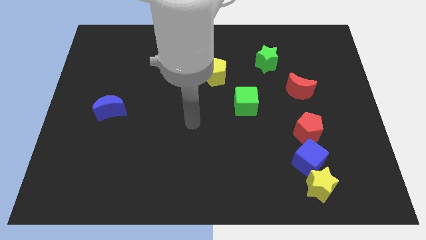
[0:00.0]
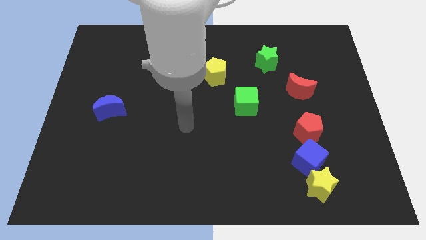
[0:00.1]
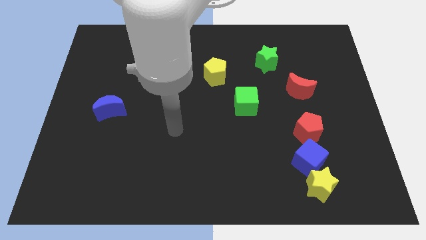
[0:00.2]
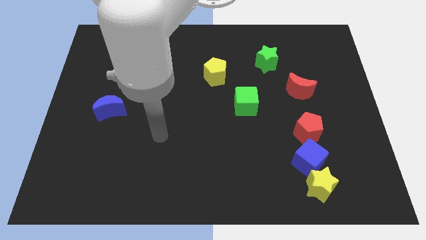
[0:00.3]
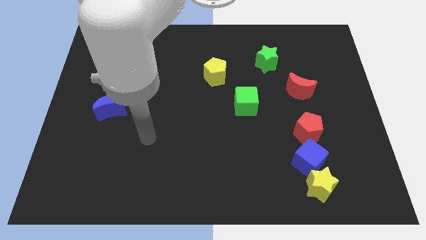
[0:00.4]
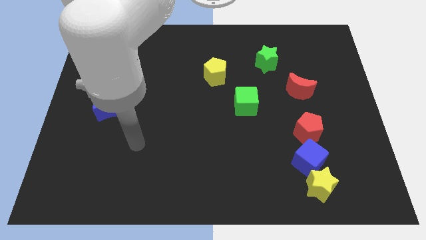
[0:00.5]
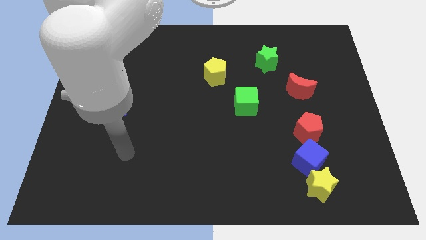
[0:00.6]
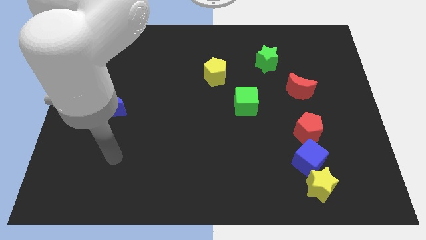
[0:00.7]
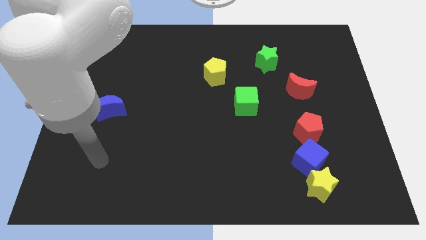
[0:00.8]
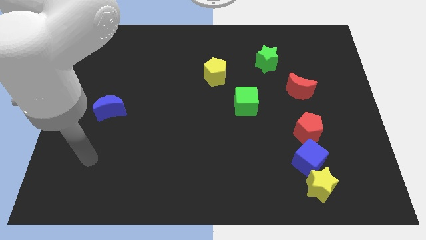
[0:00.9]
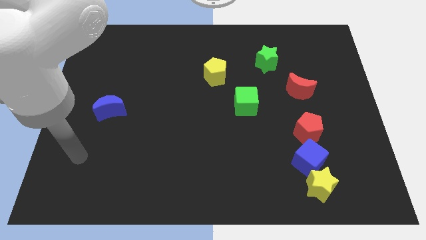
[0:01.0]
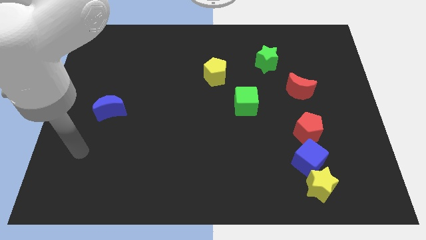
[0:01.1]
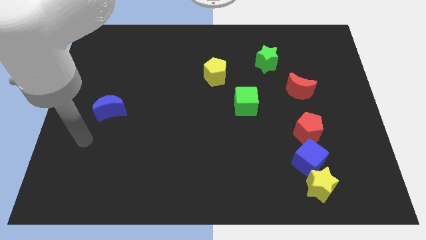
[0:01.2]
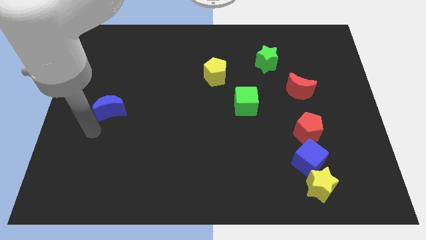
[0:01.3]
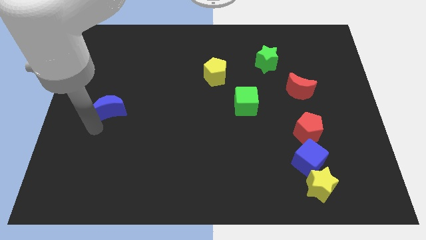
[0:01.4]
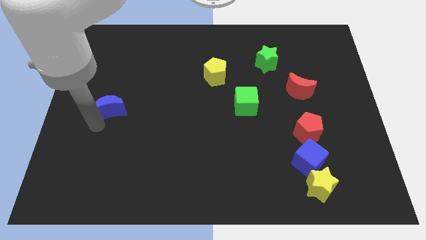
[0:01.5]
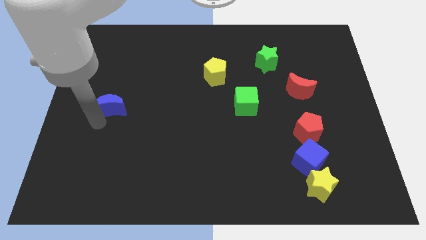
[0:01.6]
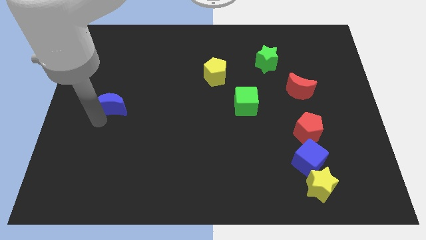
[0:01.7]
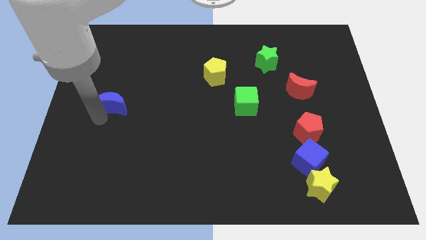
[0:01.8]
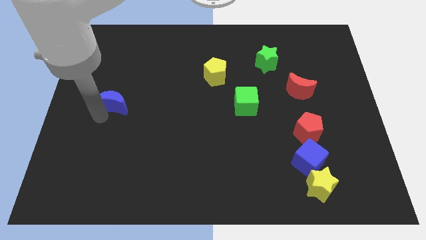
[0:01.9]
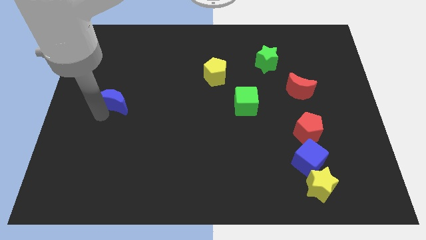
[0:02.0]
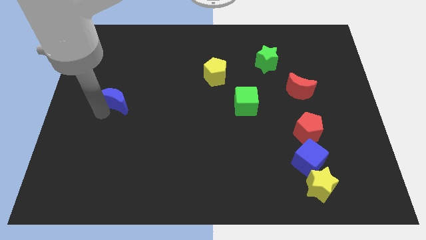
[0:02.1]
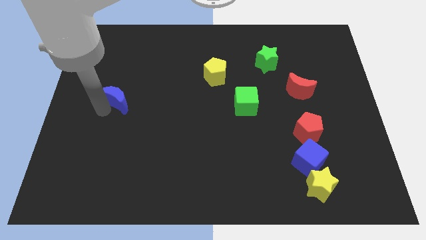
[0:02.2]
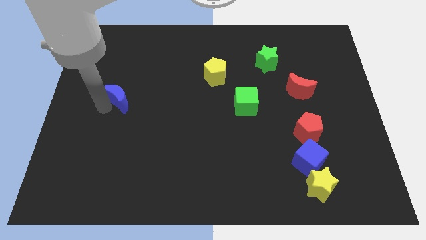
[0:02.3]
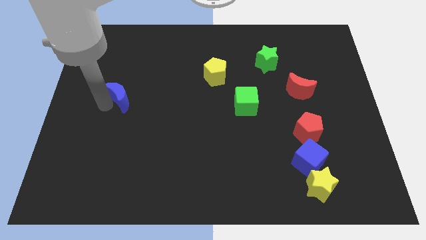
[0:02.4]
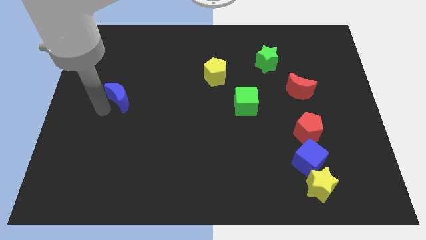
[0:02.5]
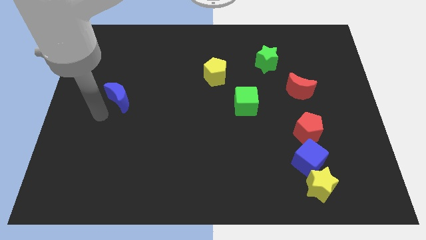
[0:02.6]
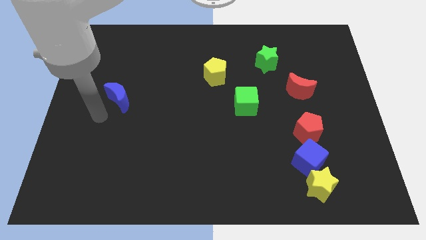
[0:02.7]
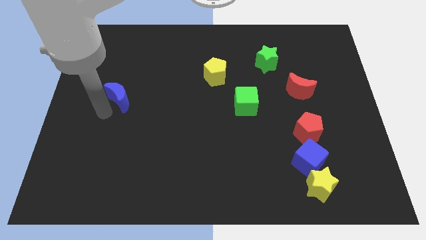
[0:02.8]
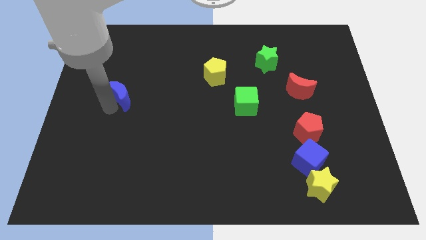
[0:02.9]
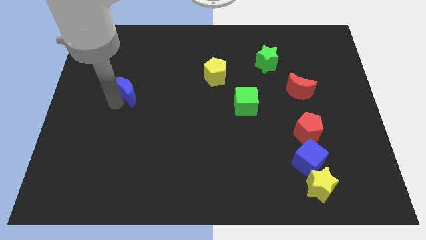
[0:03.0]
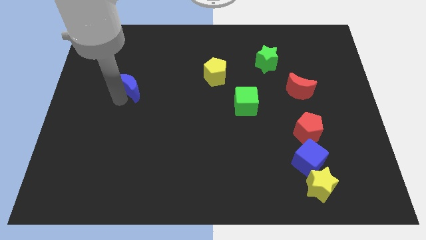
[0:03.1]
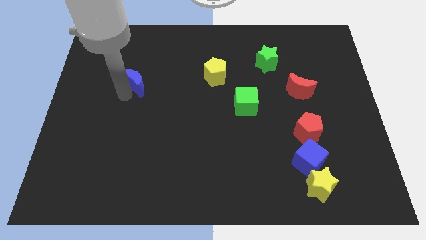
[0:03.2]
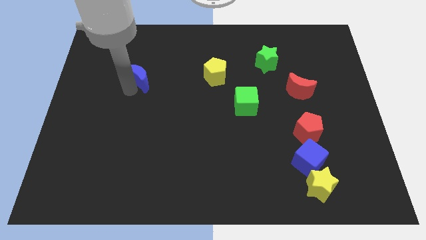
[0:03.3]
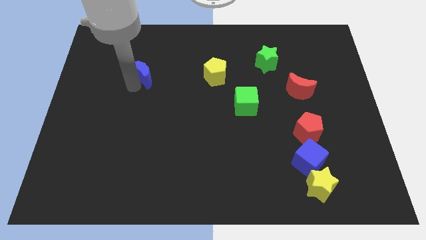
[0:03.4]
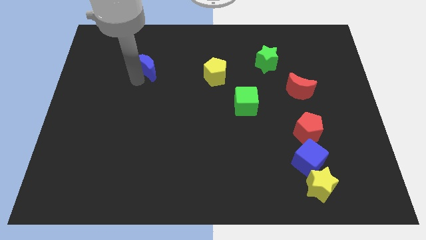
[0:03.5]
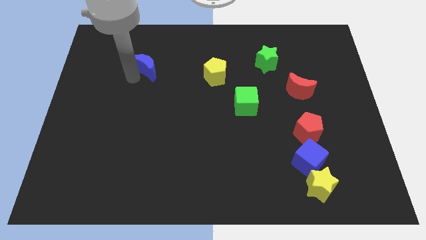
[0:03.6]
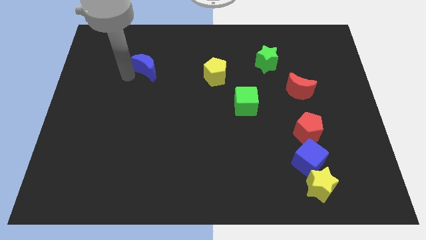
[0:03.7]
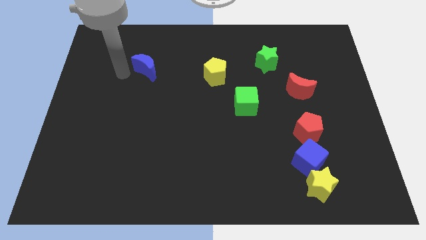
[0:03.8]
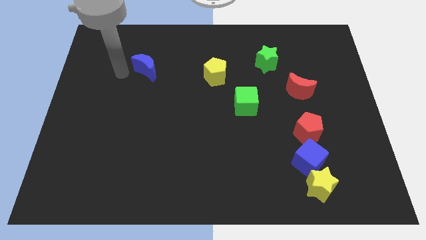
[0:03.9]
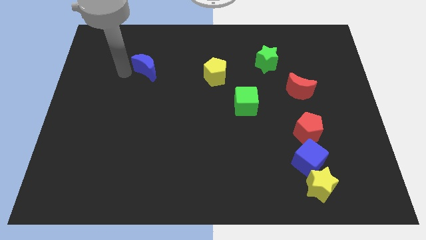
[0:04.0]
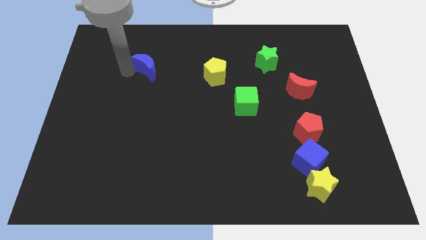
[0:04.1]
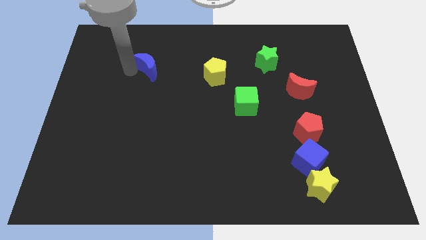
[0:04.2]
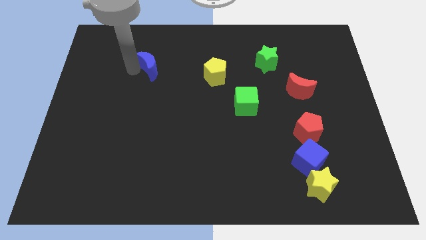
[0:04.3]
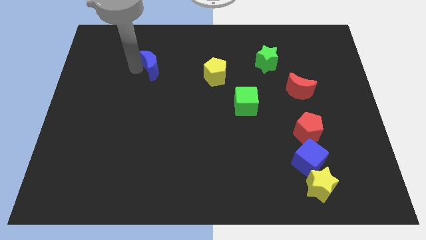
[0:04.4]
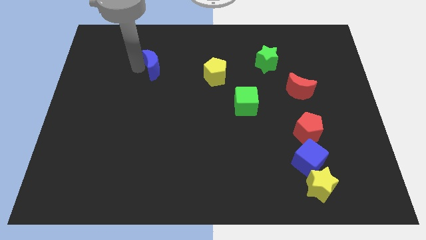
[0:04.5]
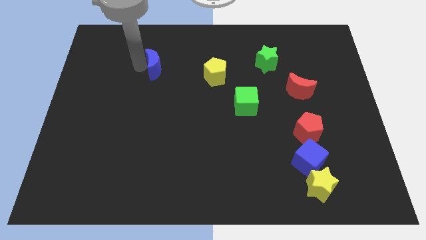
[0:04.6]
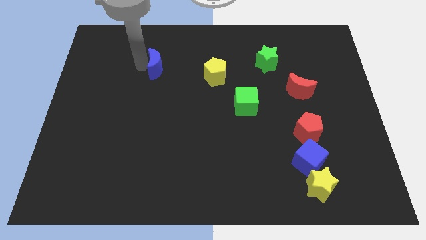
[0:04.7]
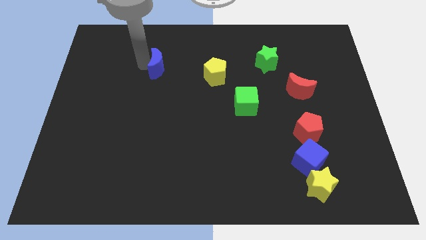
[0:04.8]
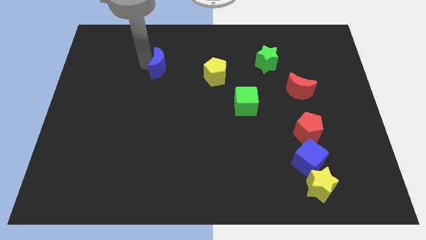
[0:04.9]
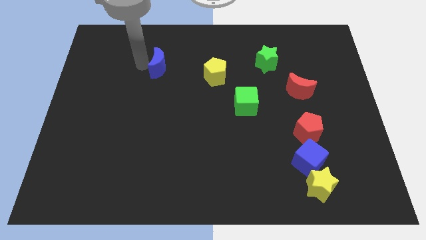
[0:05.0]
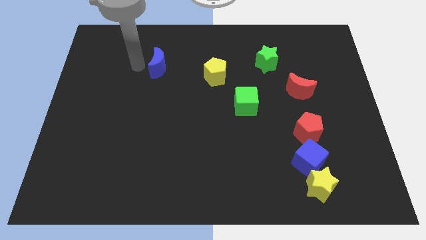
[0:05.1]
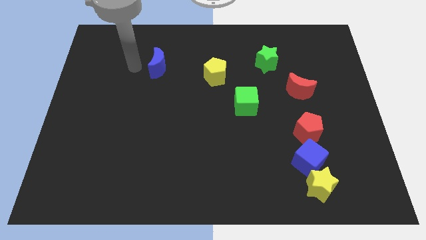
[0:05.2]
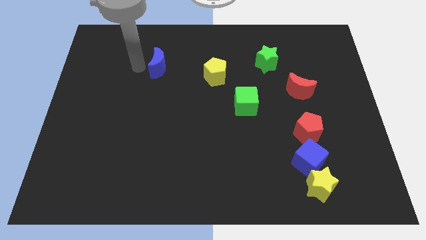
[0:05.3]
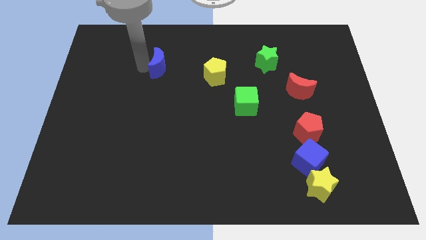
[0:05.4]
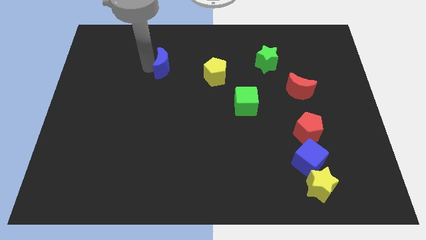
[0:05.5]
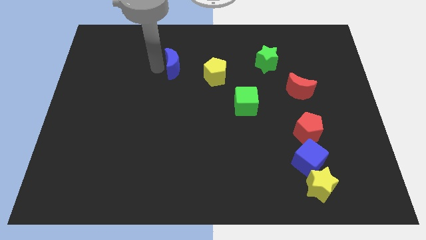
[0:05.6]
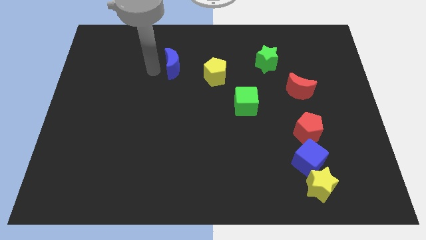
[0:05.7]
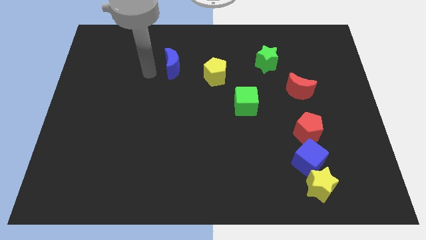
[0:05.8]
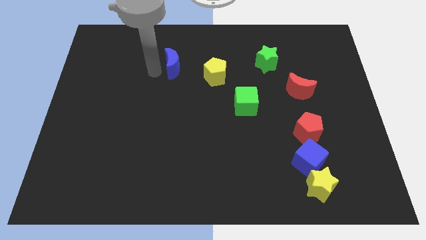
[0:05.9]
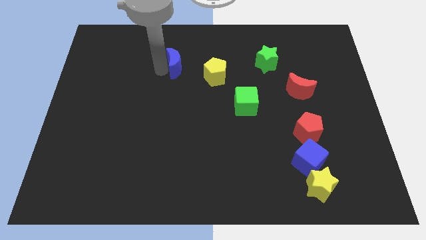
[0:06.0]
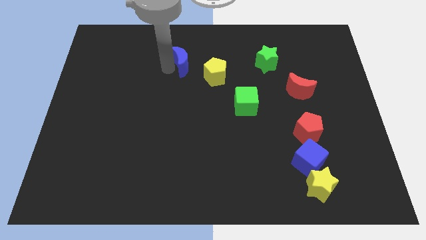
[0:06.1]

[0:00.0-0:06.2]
move the blue moon diagonally up and to the left of the yellow pentagon

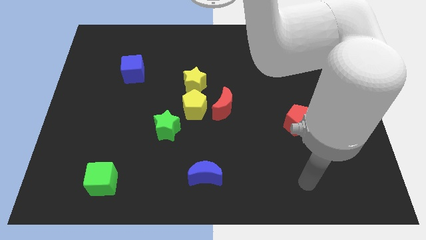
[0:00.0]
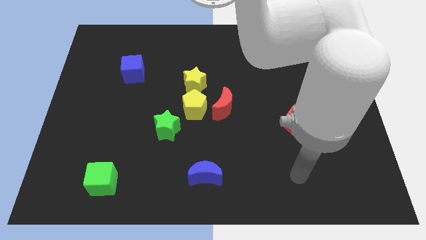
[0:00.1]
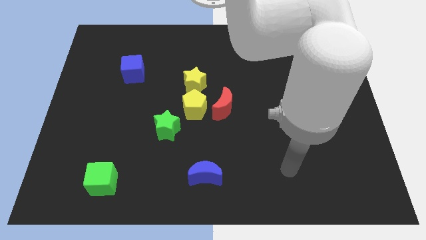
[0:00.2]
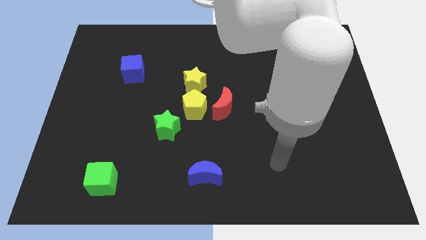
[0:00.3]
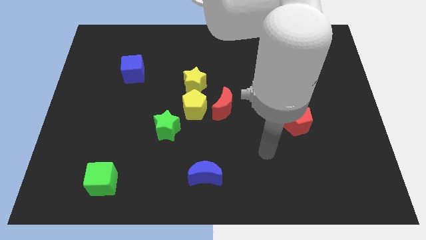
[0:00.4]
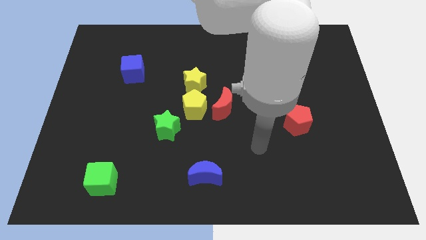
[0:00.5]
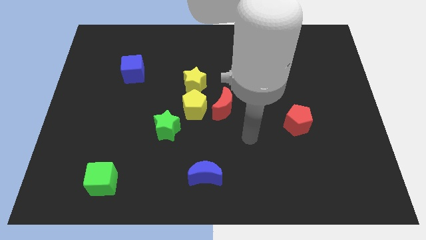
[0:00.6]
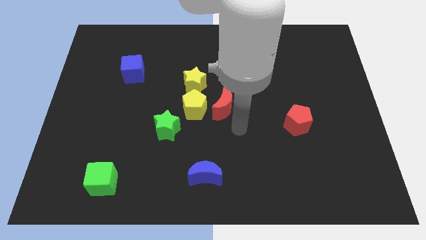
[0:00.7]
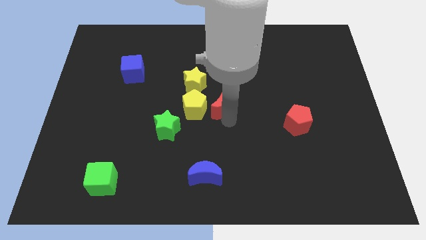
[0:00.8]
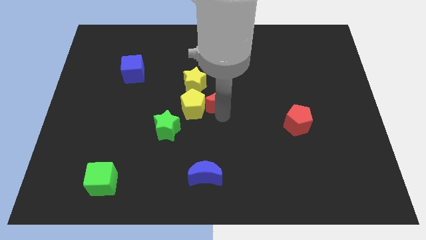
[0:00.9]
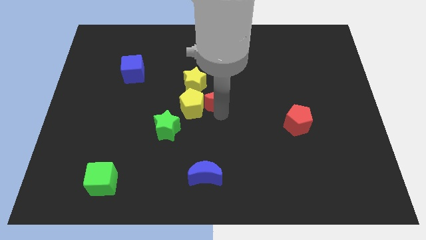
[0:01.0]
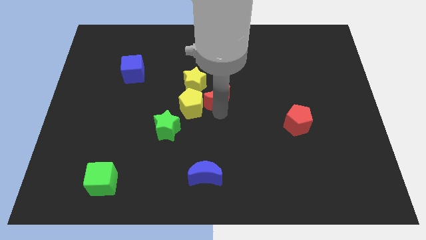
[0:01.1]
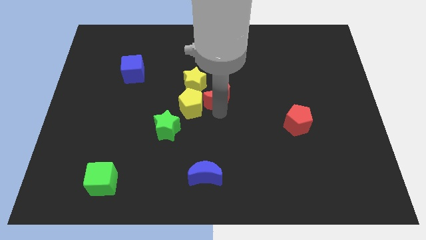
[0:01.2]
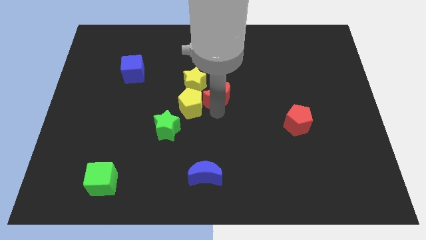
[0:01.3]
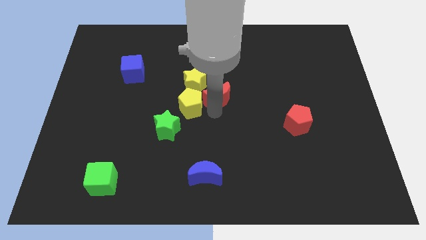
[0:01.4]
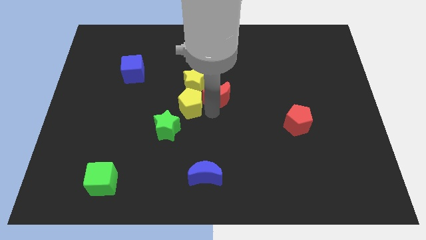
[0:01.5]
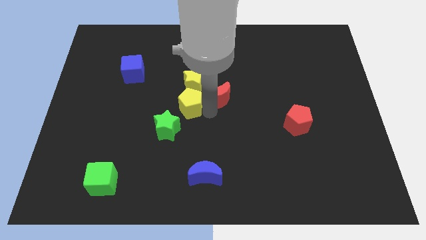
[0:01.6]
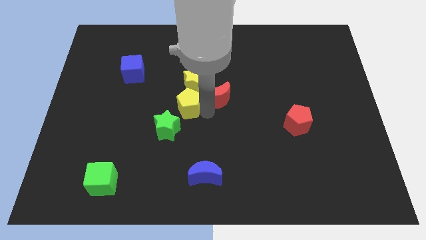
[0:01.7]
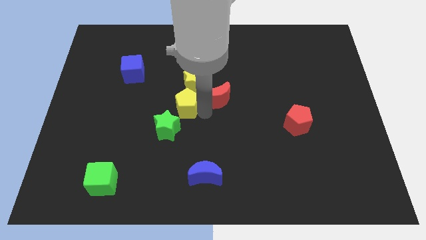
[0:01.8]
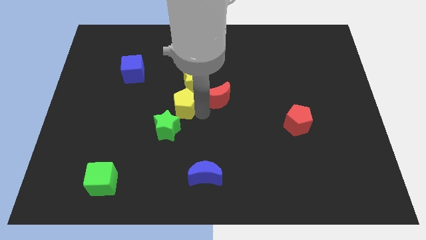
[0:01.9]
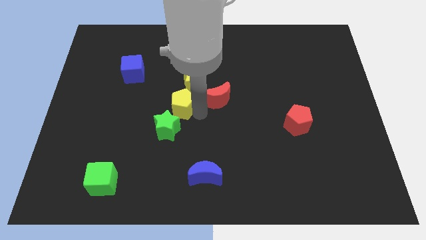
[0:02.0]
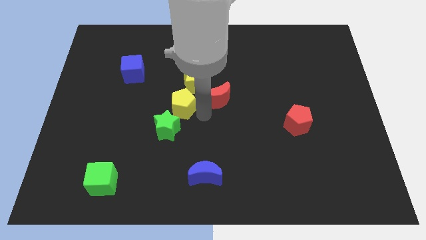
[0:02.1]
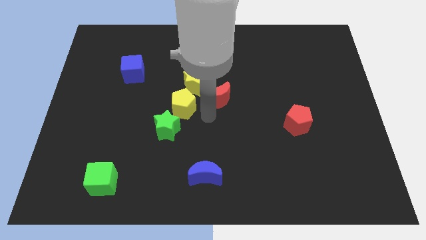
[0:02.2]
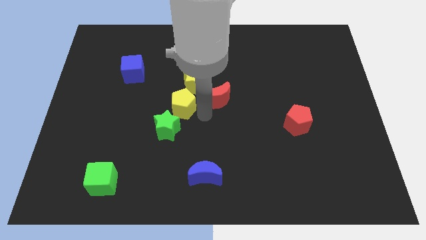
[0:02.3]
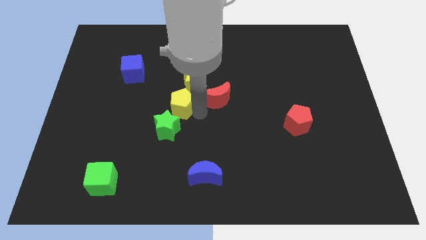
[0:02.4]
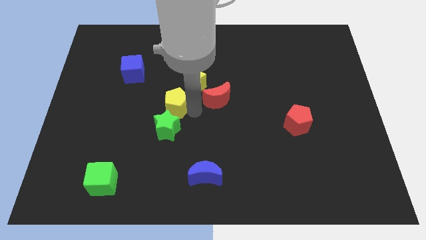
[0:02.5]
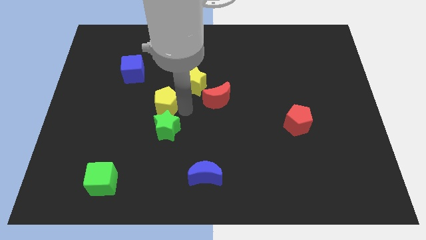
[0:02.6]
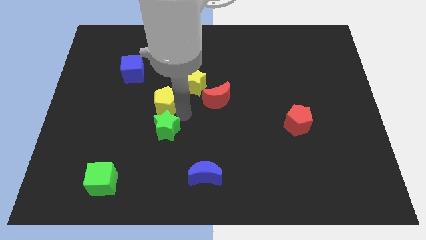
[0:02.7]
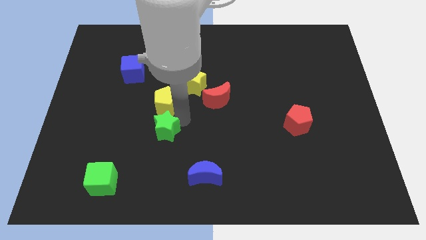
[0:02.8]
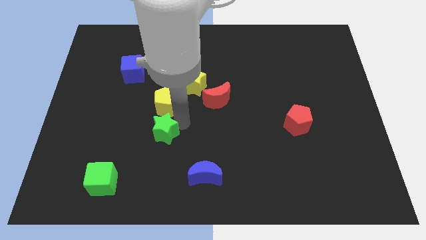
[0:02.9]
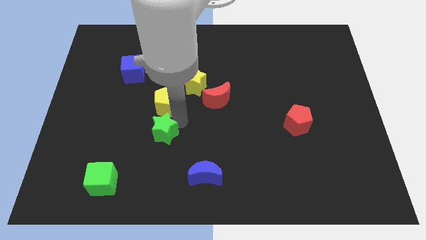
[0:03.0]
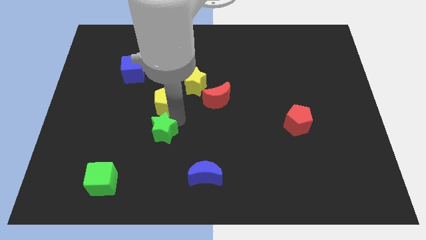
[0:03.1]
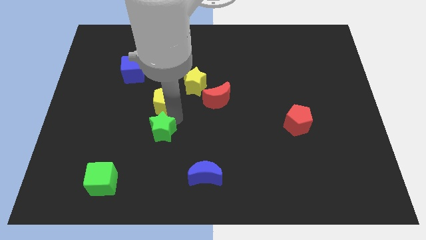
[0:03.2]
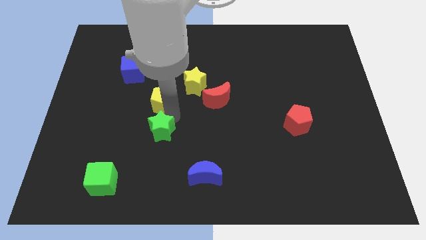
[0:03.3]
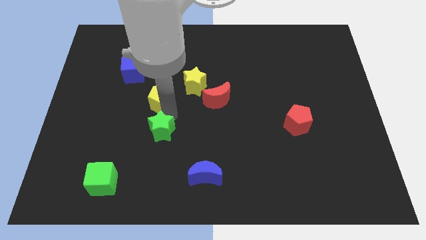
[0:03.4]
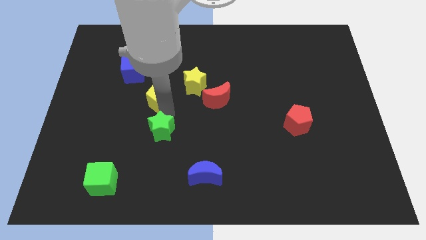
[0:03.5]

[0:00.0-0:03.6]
slide the yellow pentagon left of the yellow star
